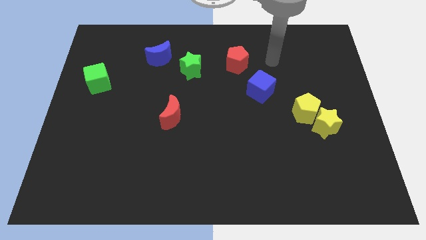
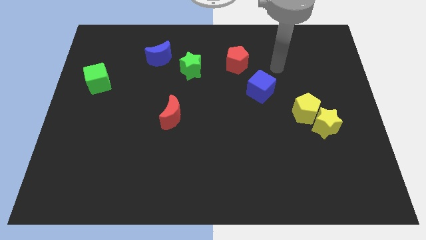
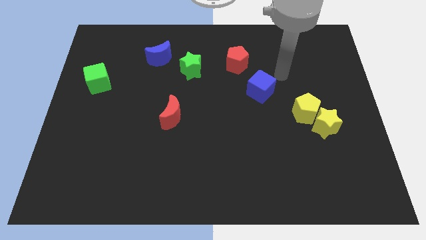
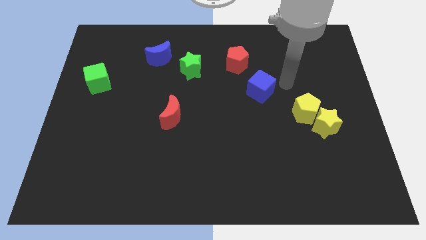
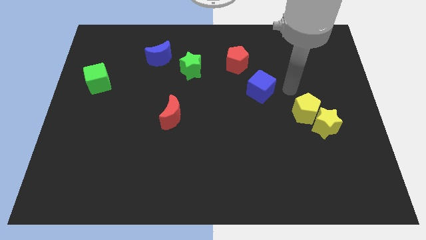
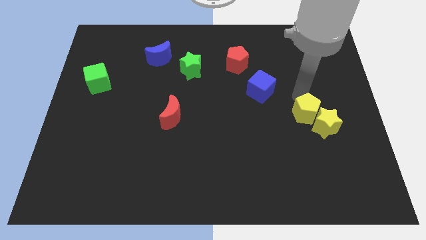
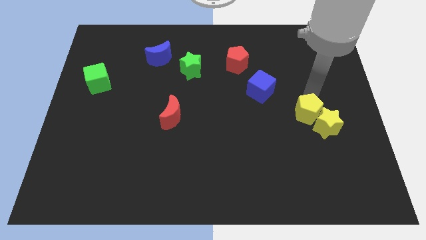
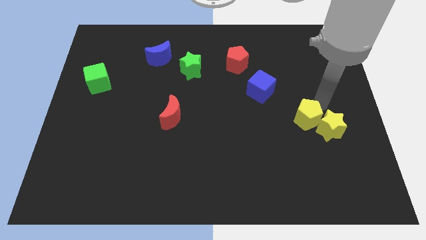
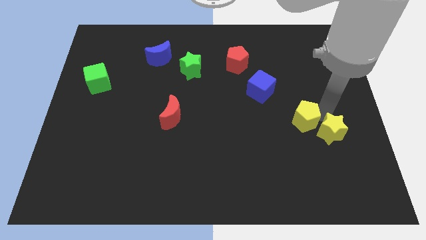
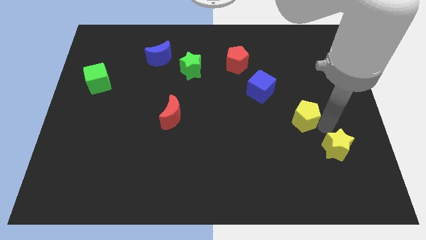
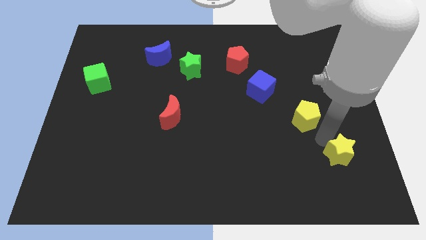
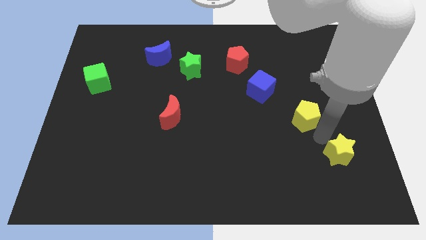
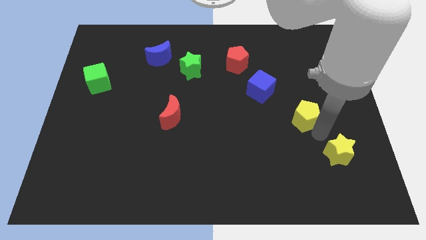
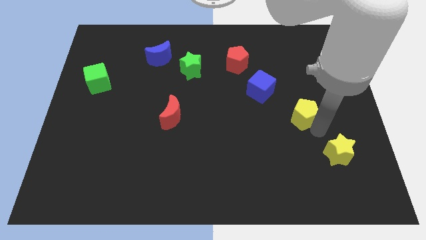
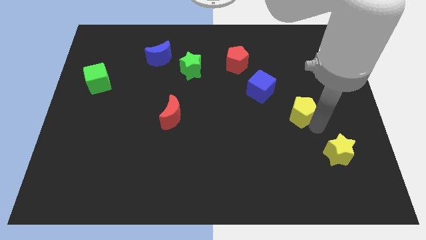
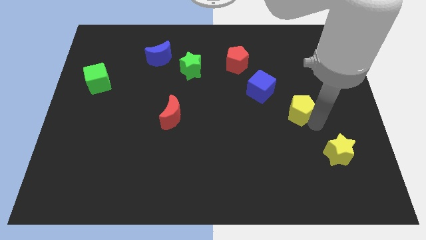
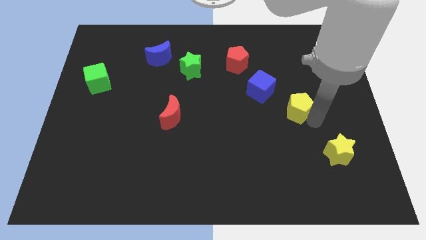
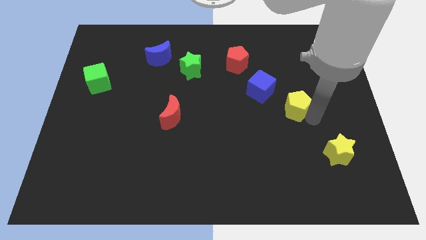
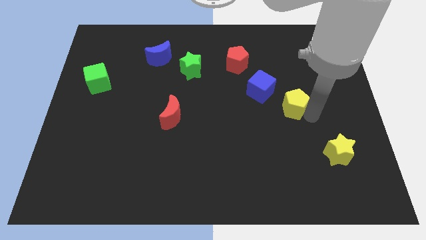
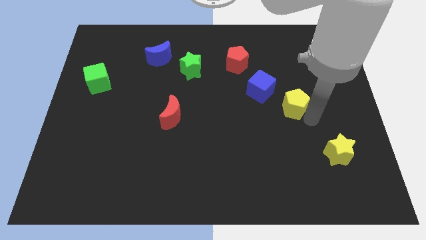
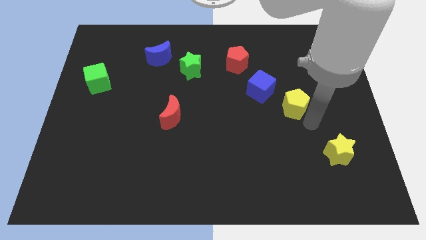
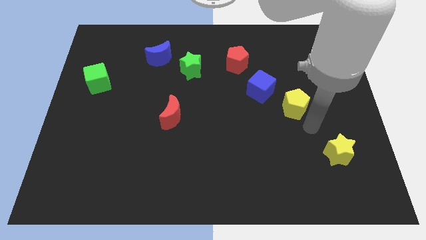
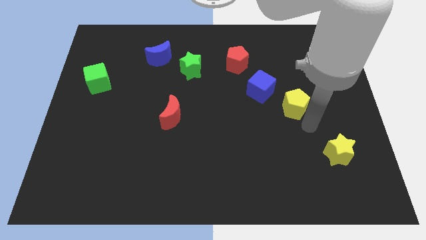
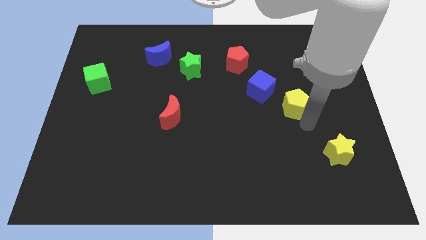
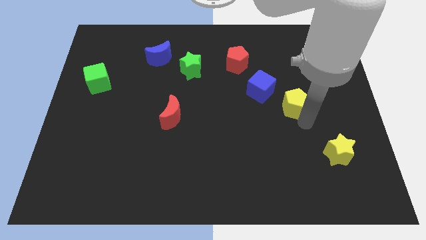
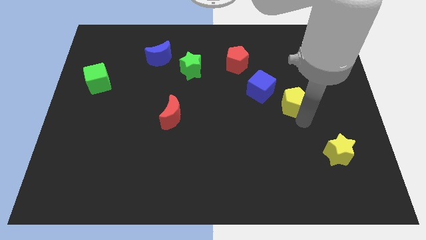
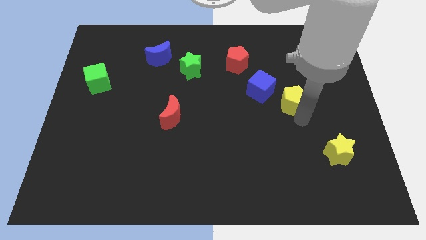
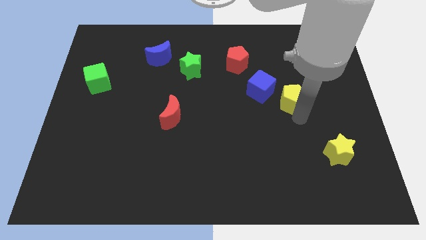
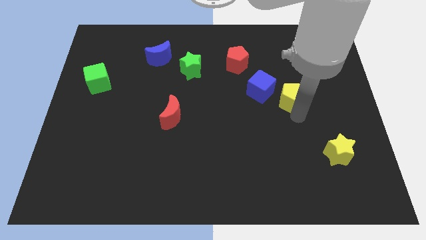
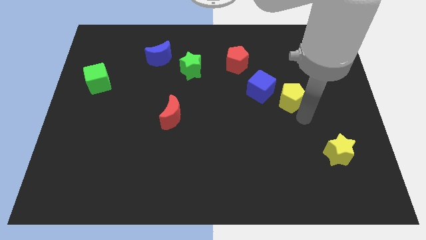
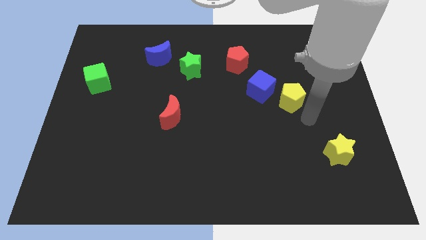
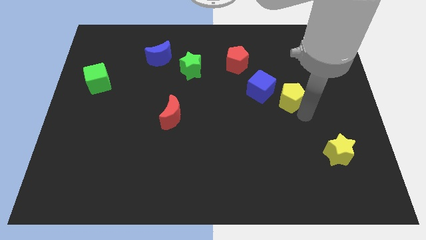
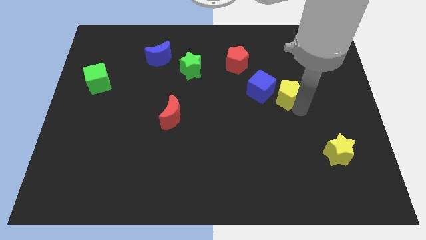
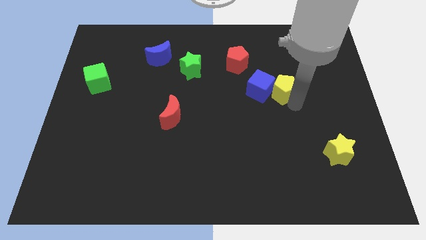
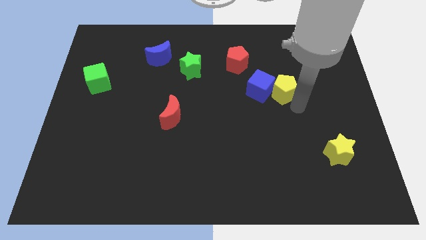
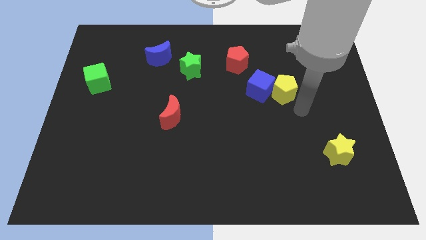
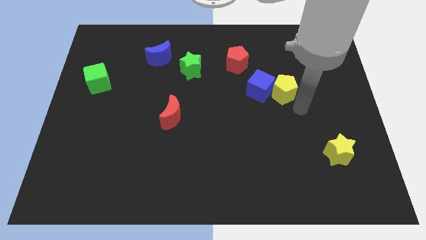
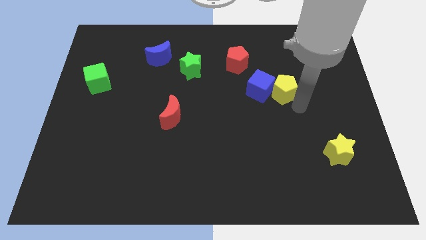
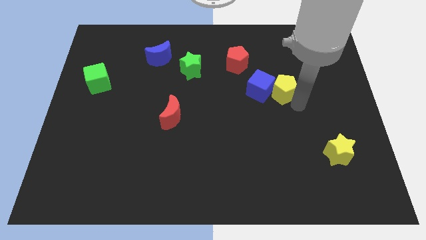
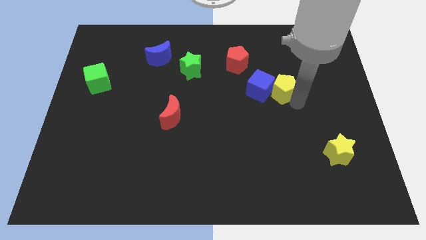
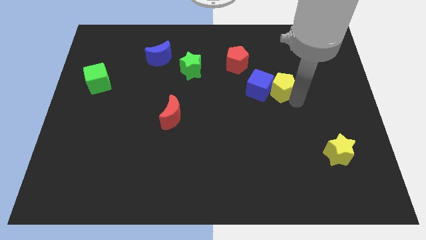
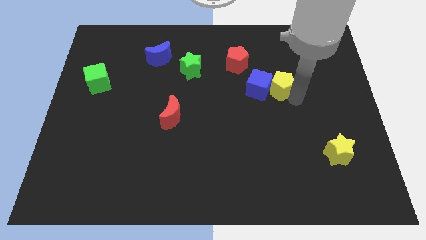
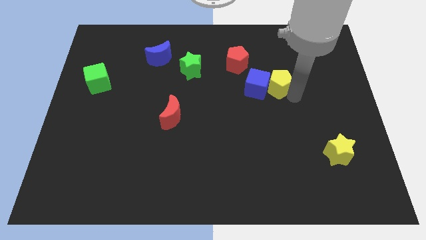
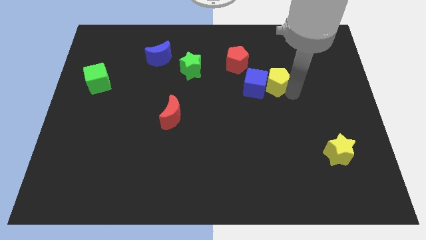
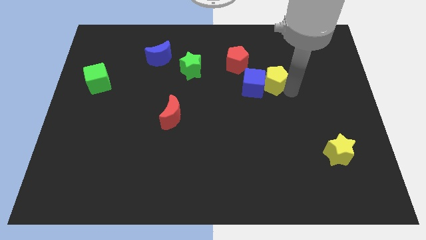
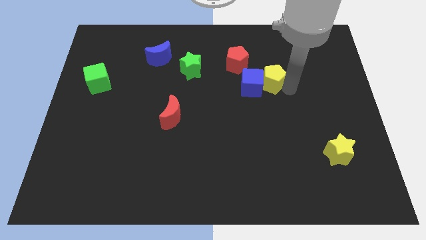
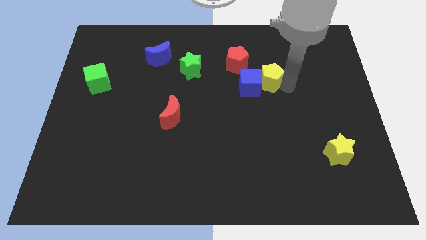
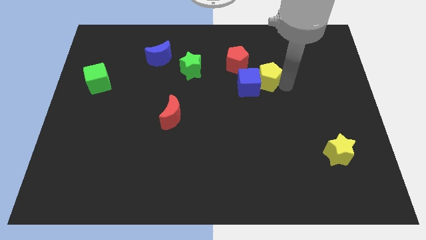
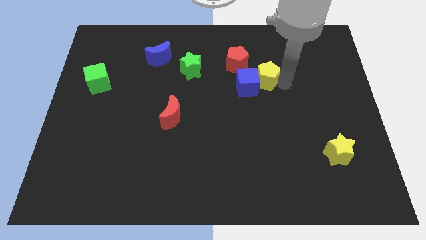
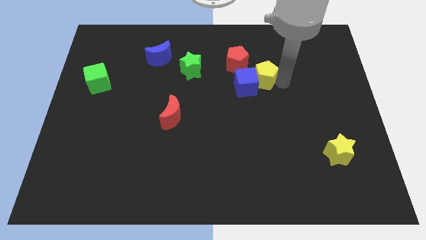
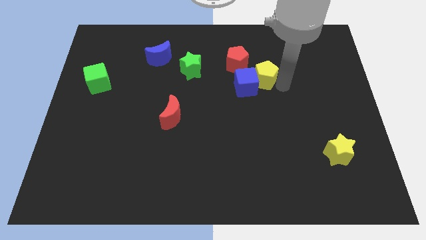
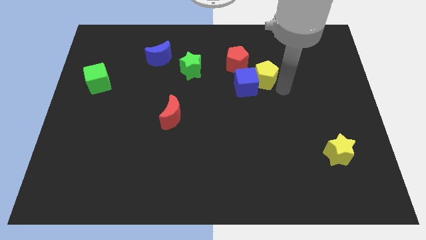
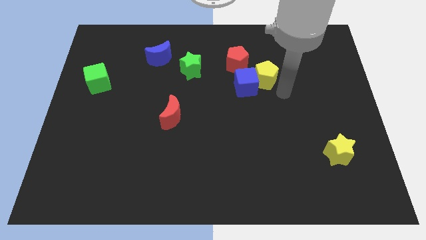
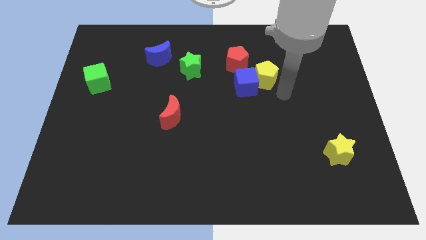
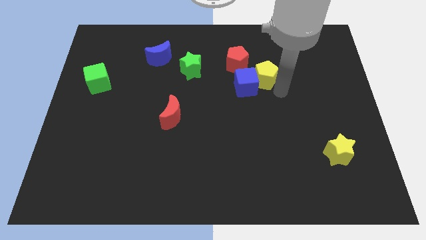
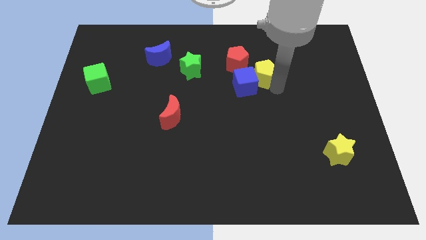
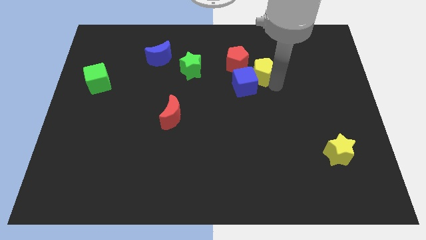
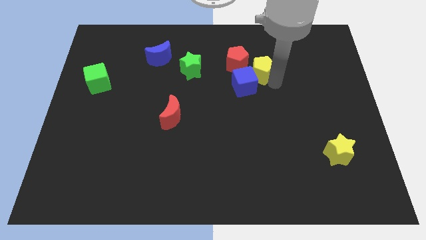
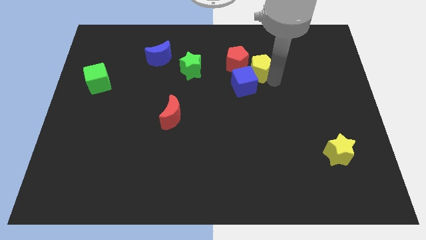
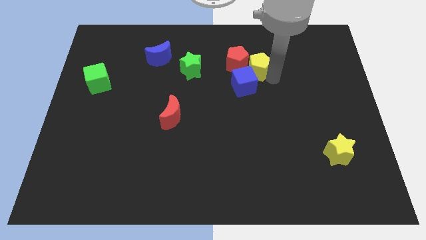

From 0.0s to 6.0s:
put the yellow pentagon to the red pentagon
